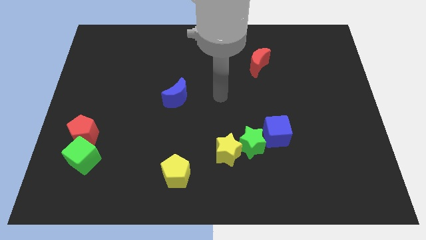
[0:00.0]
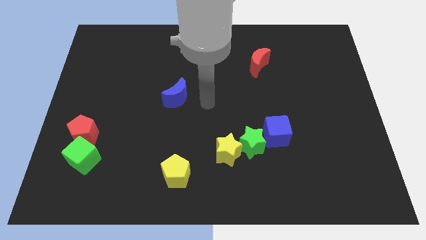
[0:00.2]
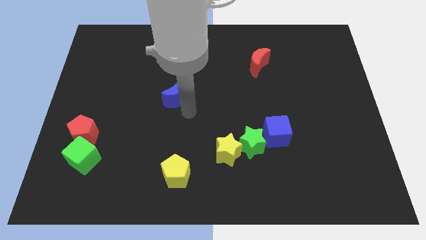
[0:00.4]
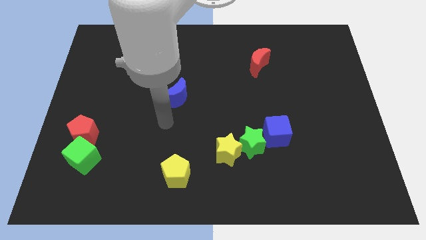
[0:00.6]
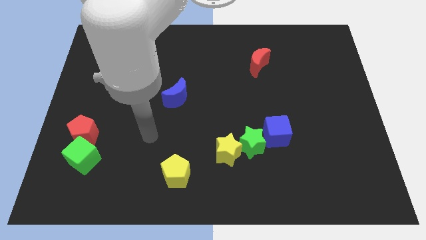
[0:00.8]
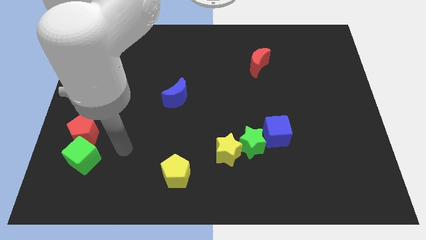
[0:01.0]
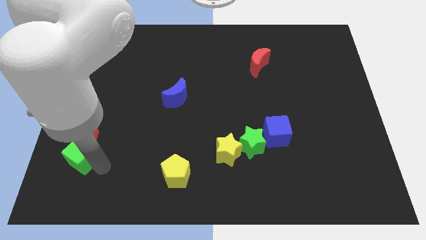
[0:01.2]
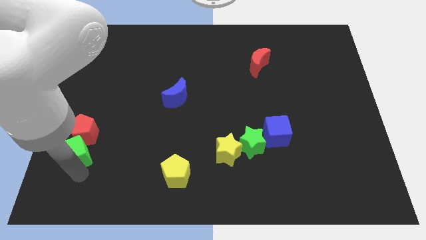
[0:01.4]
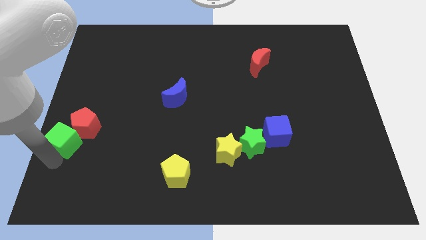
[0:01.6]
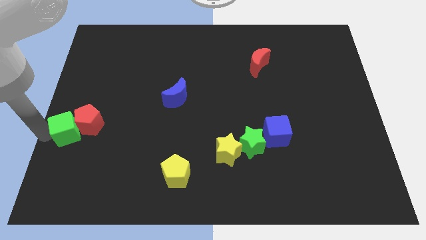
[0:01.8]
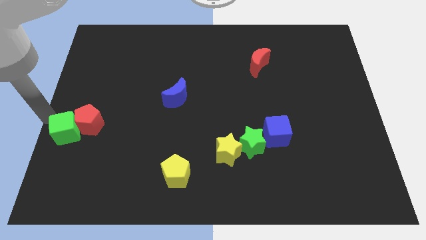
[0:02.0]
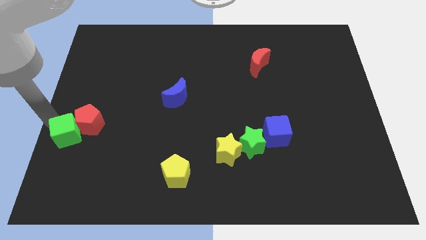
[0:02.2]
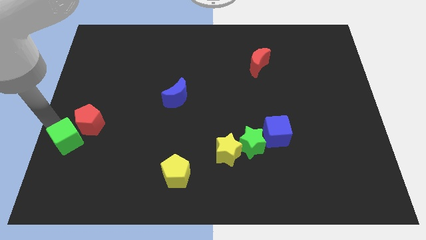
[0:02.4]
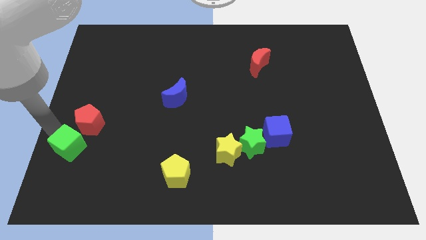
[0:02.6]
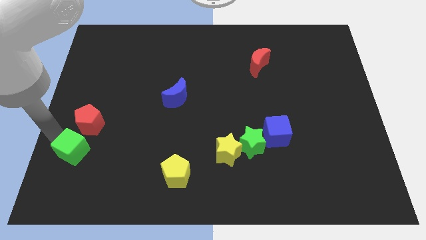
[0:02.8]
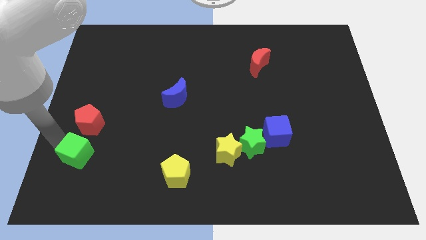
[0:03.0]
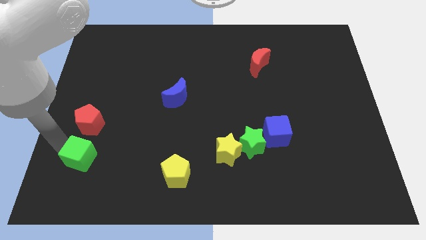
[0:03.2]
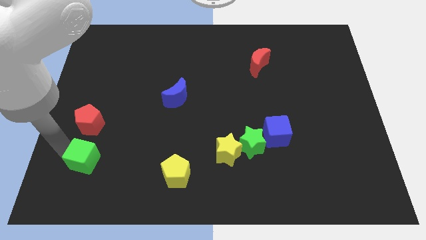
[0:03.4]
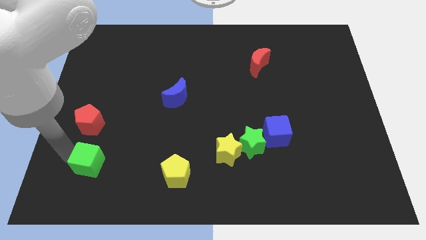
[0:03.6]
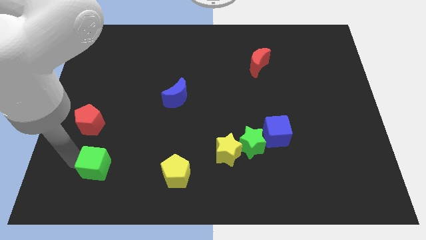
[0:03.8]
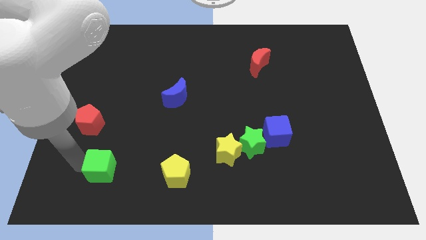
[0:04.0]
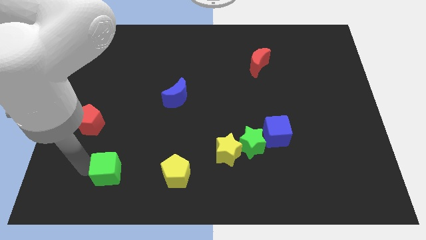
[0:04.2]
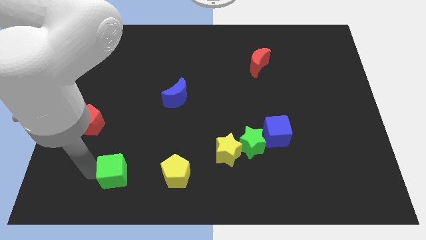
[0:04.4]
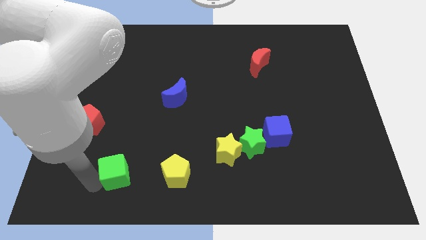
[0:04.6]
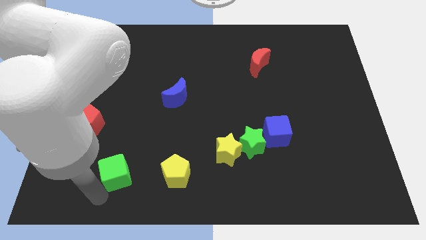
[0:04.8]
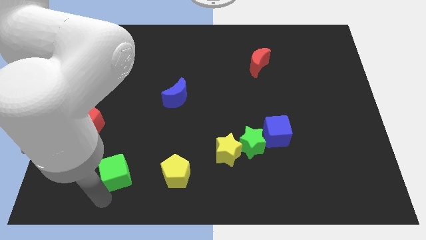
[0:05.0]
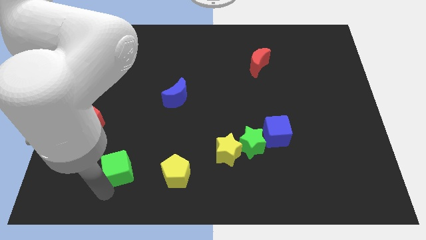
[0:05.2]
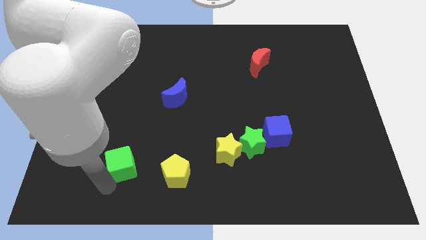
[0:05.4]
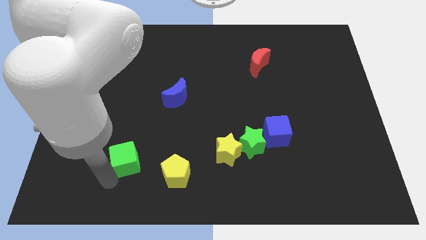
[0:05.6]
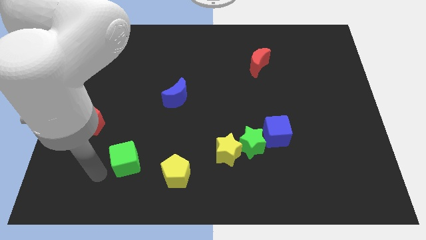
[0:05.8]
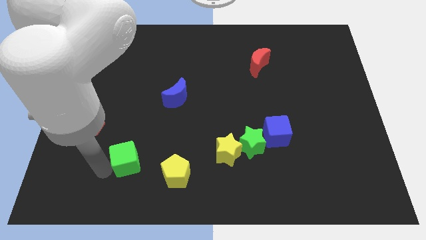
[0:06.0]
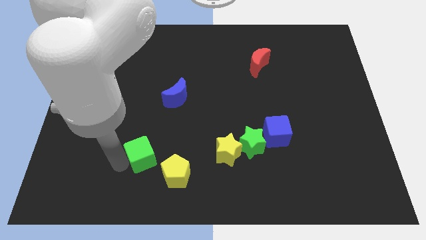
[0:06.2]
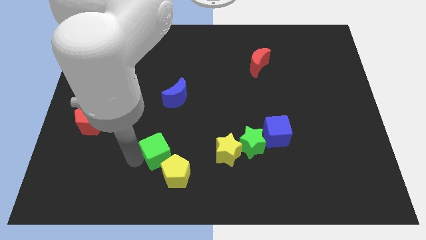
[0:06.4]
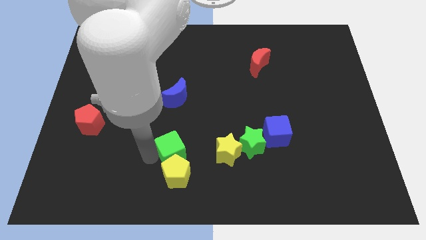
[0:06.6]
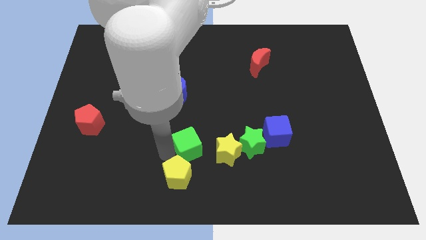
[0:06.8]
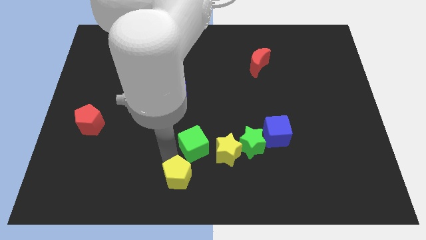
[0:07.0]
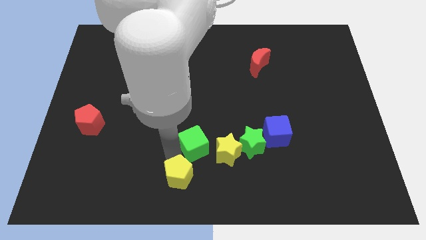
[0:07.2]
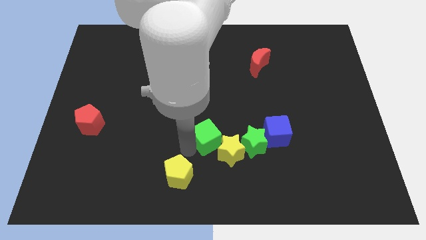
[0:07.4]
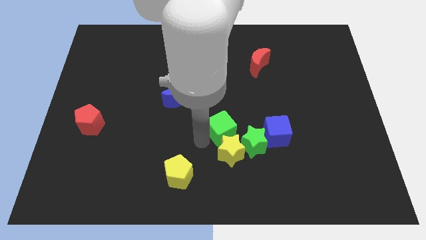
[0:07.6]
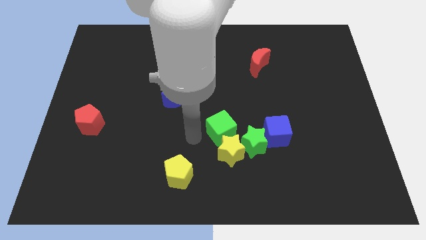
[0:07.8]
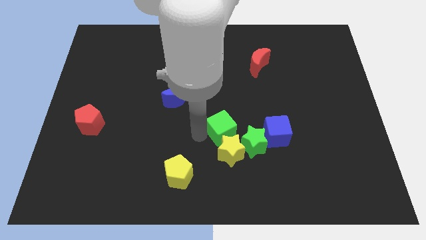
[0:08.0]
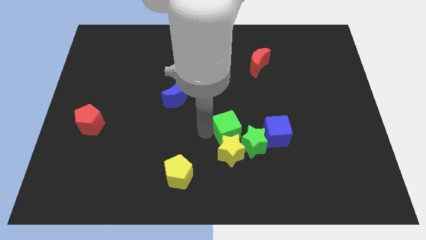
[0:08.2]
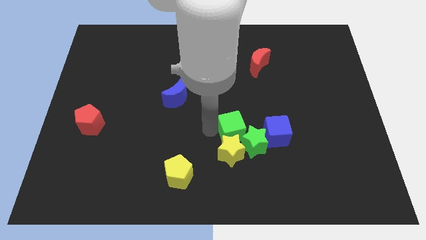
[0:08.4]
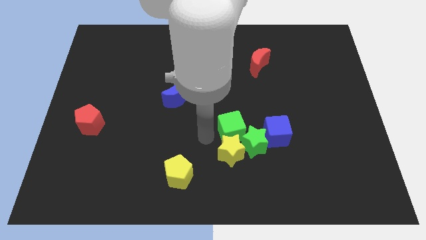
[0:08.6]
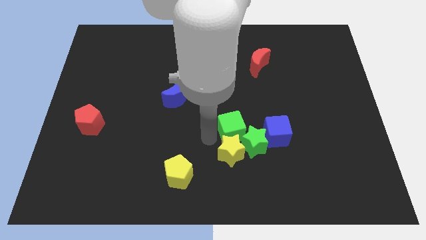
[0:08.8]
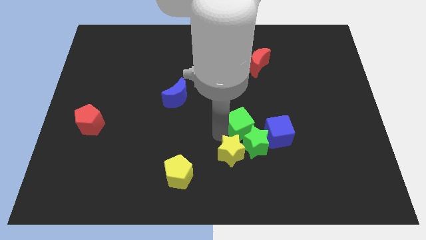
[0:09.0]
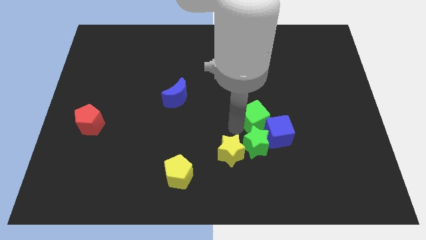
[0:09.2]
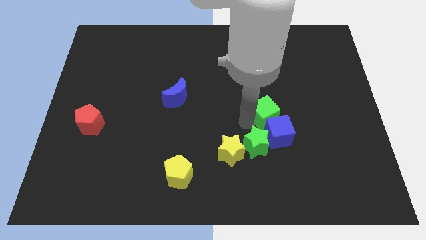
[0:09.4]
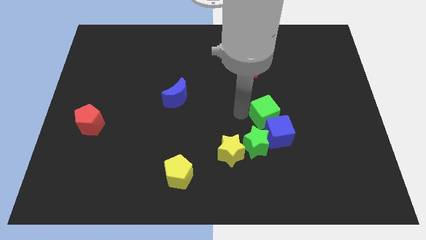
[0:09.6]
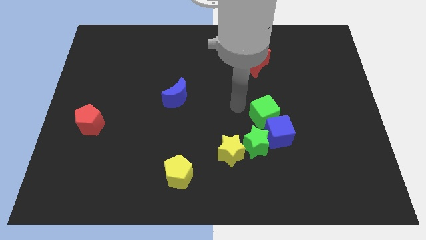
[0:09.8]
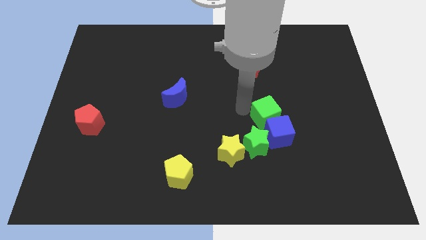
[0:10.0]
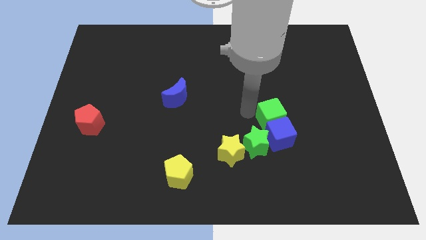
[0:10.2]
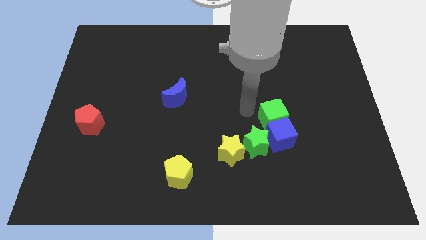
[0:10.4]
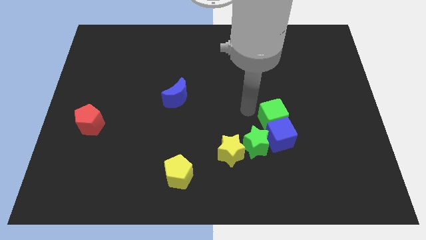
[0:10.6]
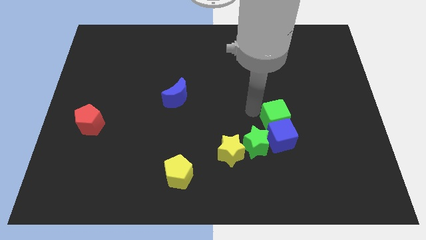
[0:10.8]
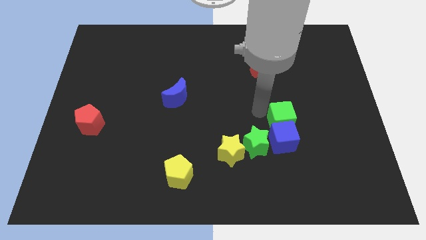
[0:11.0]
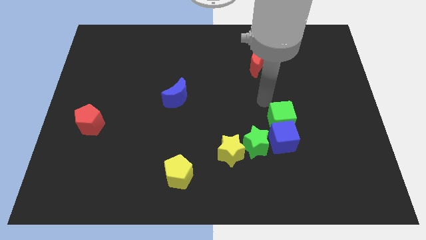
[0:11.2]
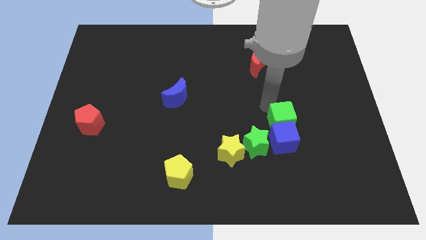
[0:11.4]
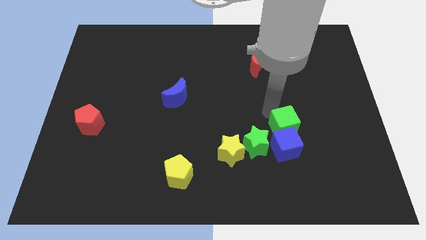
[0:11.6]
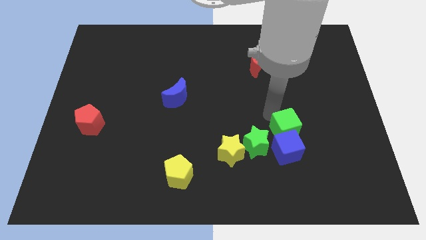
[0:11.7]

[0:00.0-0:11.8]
put the green cube just right of the green star

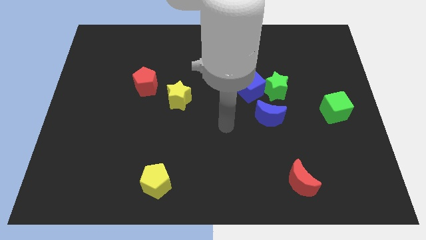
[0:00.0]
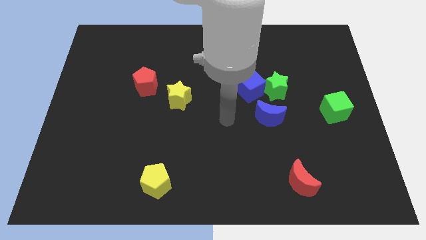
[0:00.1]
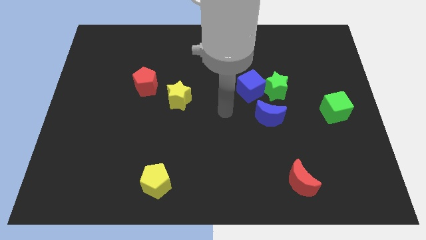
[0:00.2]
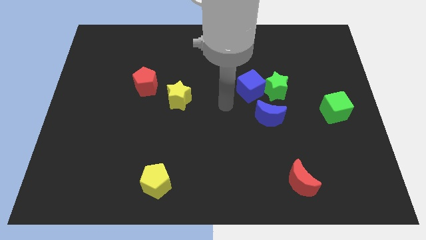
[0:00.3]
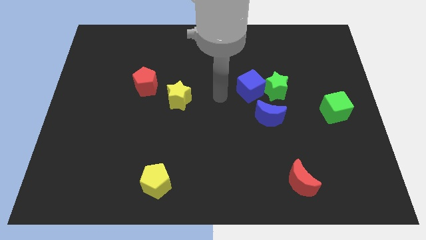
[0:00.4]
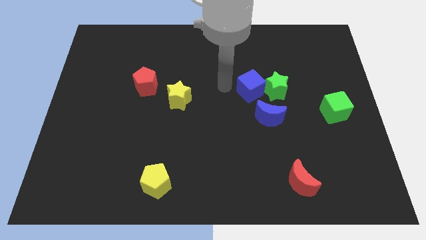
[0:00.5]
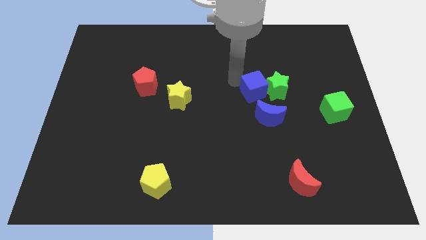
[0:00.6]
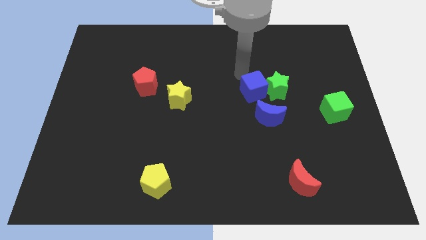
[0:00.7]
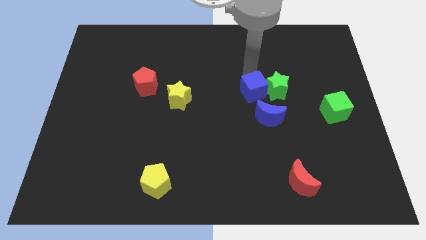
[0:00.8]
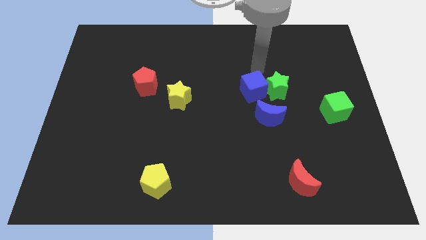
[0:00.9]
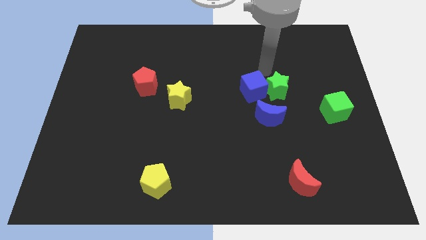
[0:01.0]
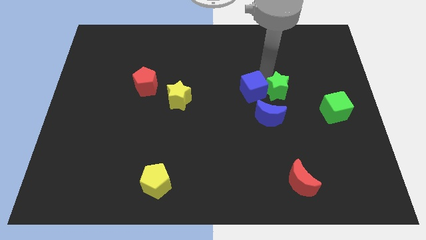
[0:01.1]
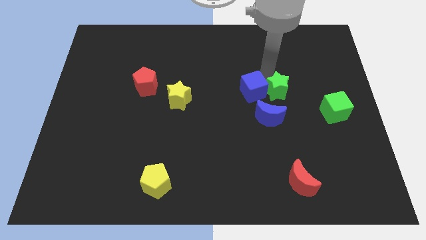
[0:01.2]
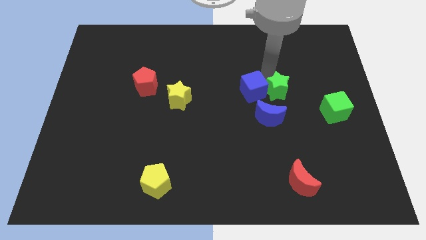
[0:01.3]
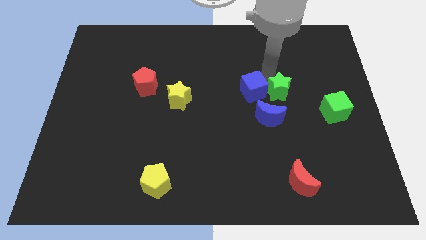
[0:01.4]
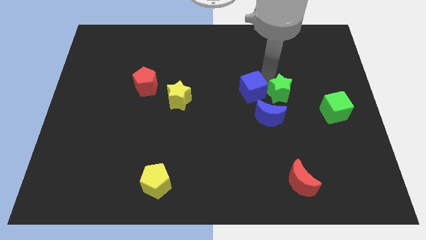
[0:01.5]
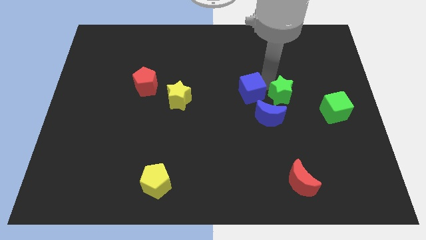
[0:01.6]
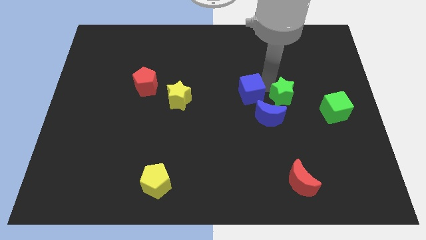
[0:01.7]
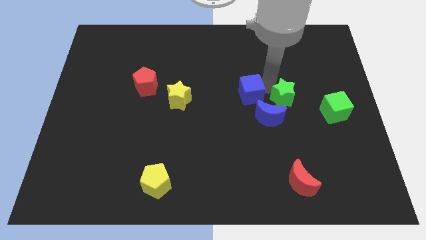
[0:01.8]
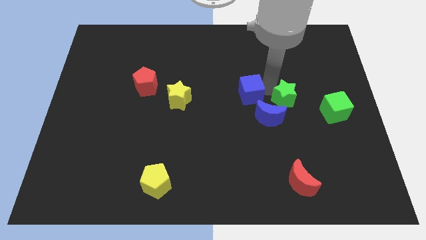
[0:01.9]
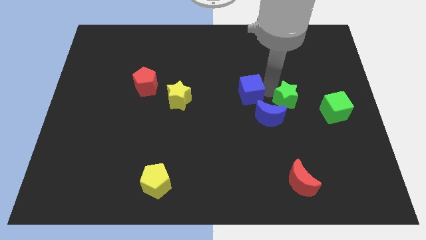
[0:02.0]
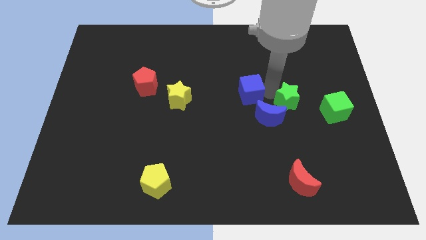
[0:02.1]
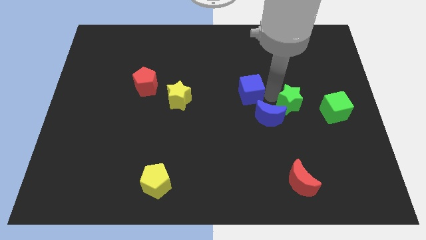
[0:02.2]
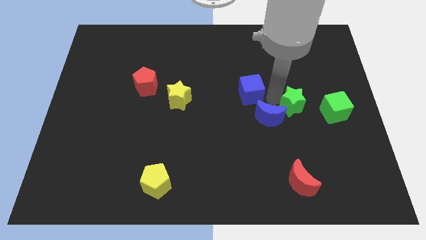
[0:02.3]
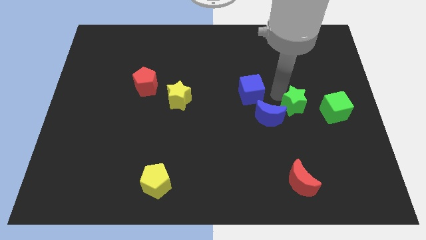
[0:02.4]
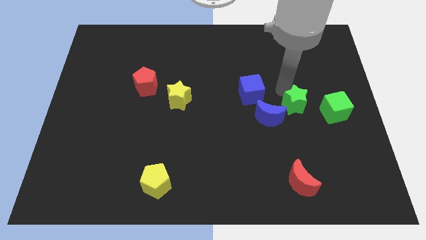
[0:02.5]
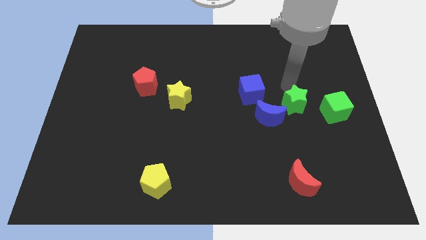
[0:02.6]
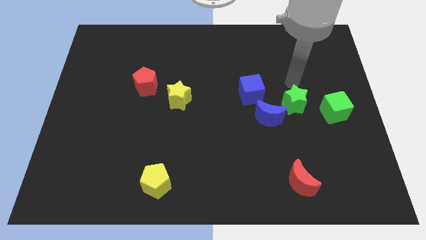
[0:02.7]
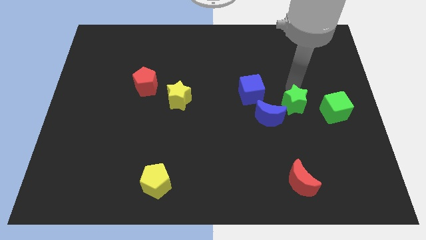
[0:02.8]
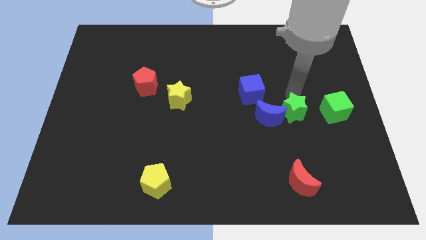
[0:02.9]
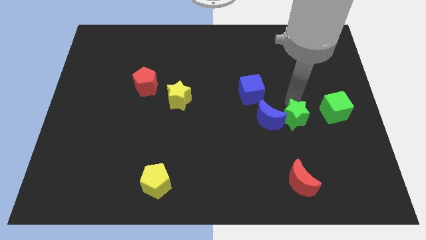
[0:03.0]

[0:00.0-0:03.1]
move the green star to the top of the red moon
